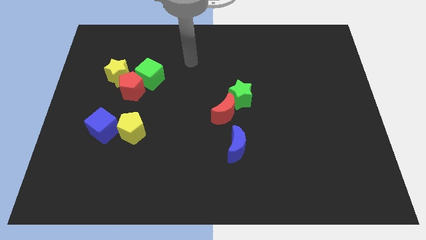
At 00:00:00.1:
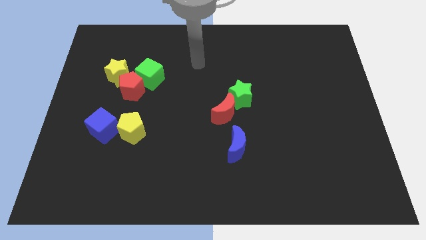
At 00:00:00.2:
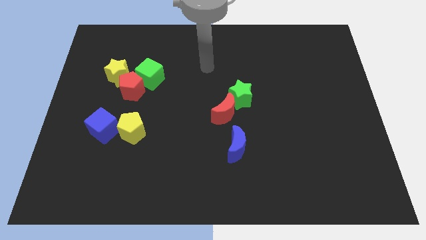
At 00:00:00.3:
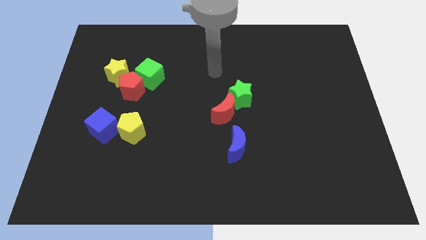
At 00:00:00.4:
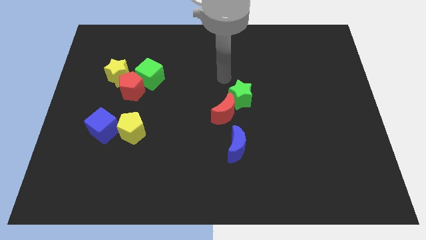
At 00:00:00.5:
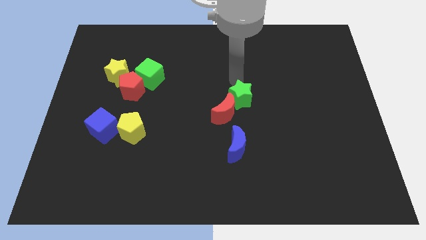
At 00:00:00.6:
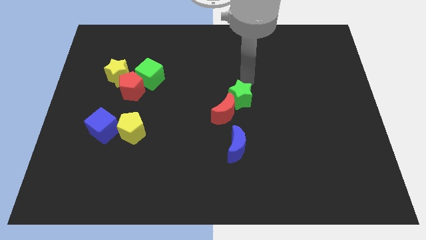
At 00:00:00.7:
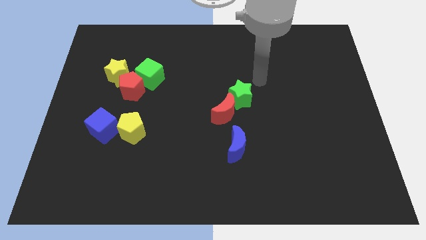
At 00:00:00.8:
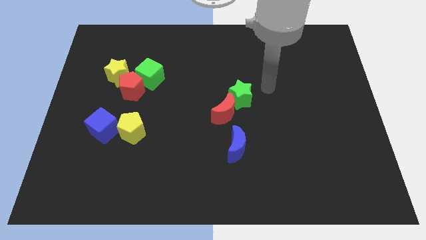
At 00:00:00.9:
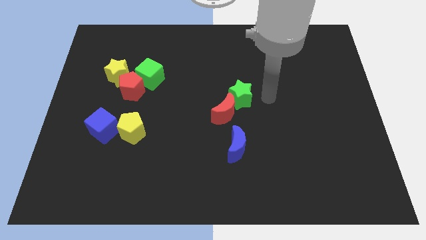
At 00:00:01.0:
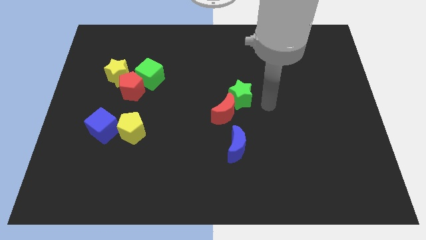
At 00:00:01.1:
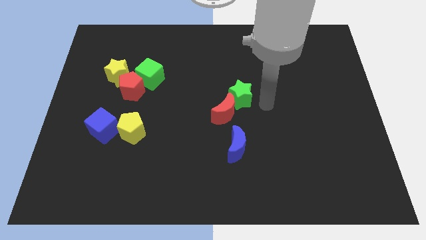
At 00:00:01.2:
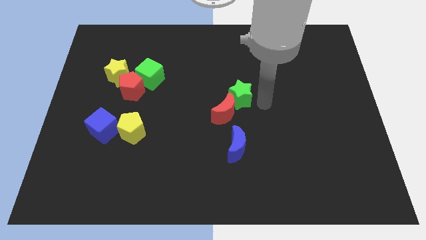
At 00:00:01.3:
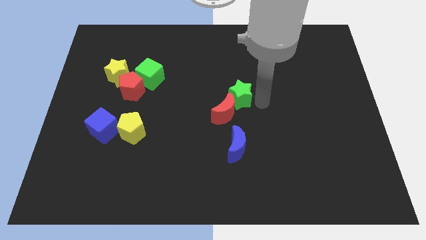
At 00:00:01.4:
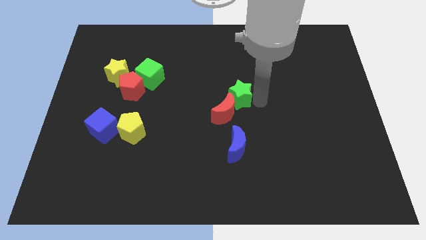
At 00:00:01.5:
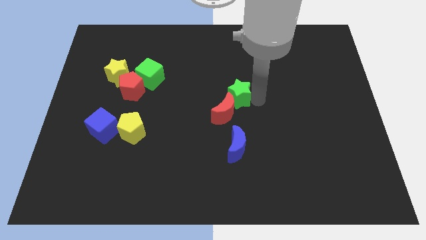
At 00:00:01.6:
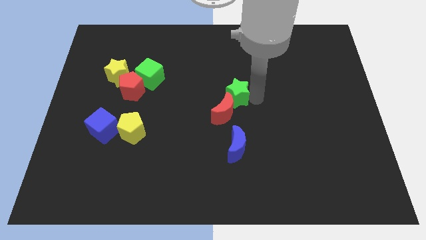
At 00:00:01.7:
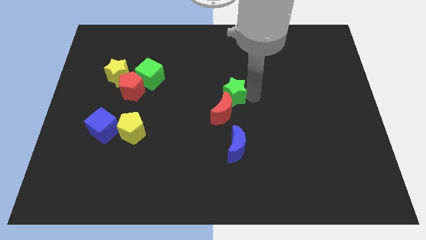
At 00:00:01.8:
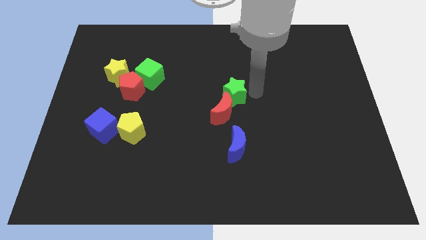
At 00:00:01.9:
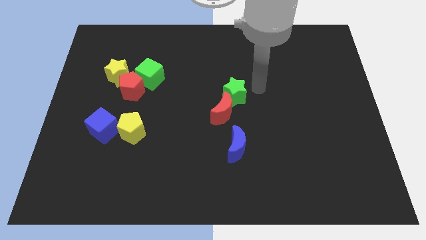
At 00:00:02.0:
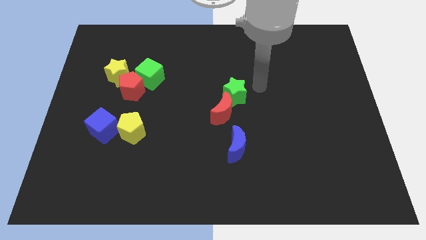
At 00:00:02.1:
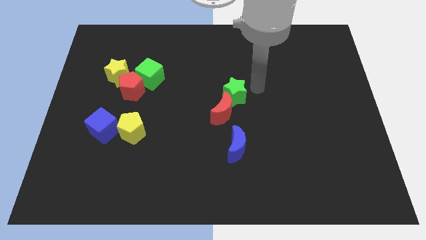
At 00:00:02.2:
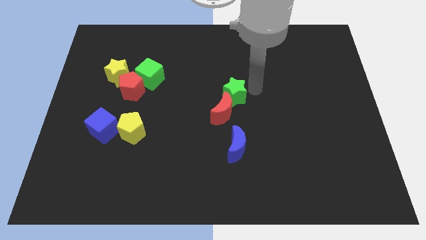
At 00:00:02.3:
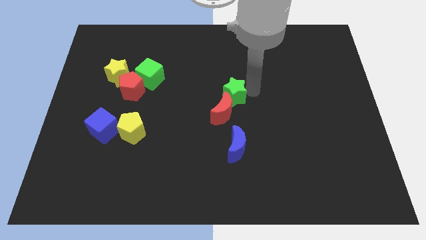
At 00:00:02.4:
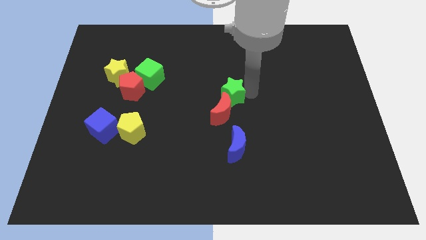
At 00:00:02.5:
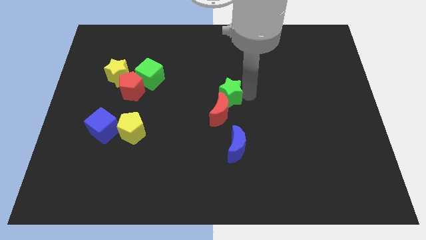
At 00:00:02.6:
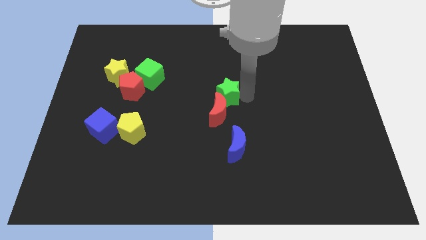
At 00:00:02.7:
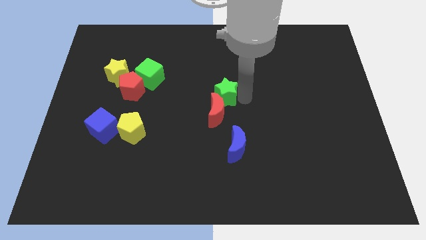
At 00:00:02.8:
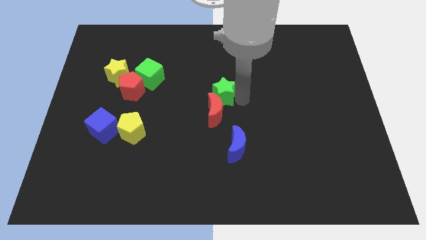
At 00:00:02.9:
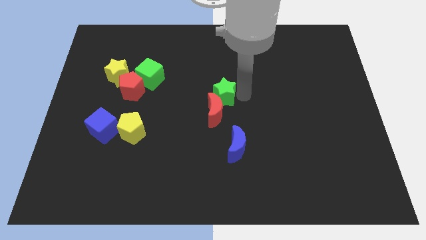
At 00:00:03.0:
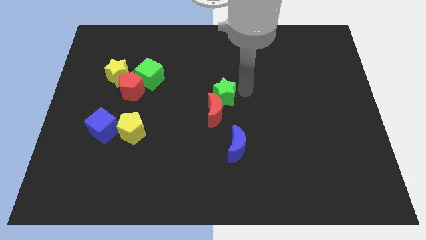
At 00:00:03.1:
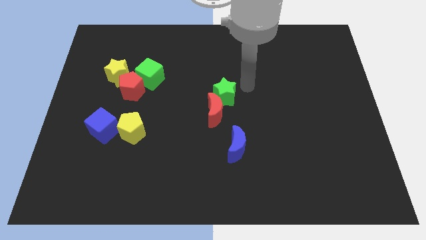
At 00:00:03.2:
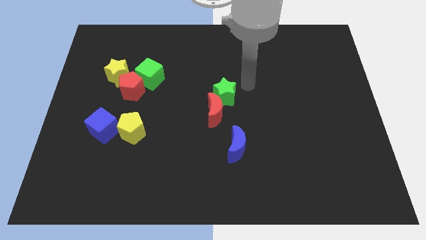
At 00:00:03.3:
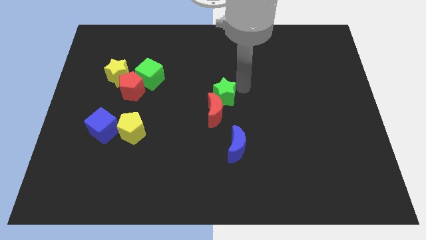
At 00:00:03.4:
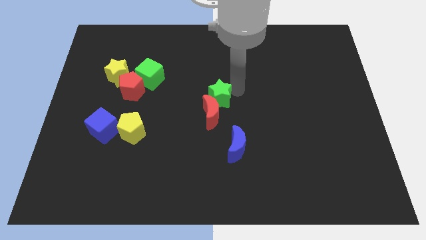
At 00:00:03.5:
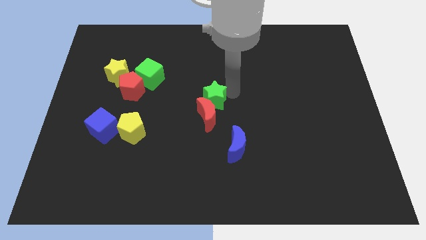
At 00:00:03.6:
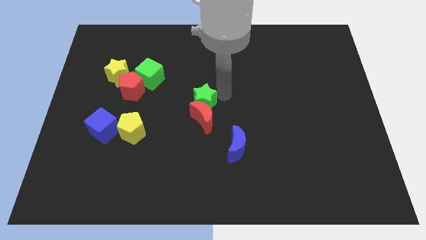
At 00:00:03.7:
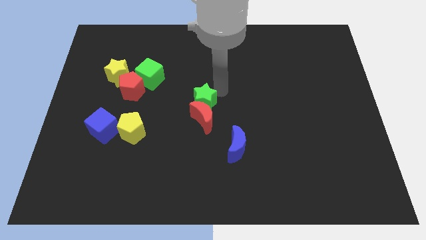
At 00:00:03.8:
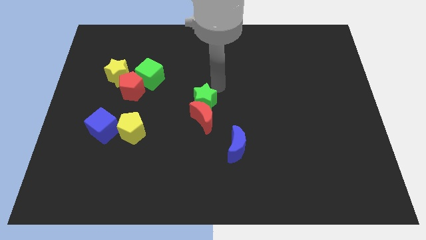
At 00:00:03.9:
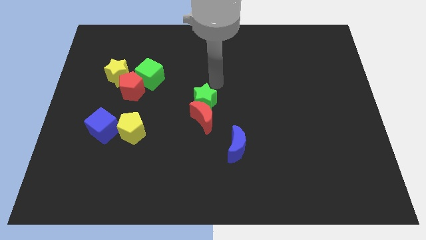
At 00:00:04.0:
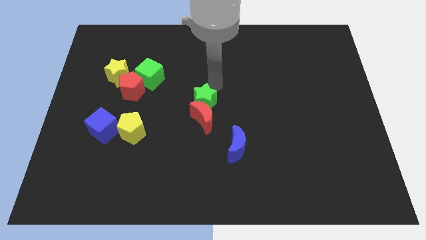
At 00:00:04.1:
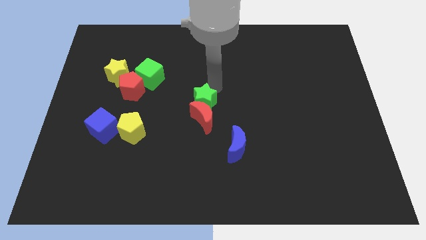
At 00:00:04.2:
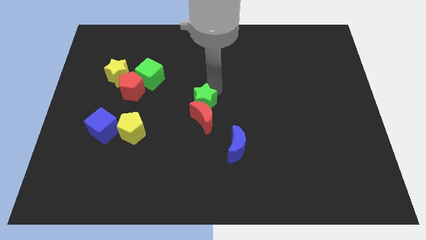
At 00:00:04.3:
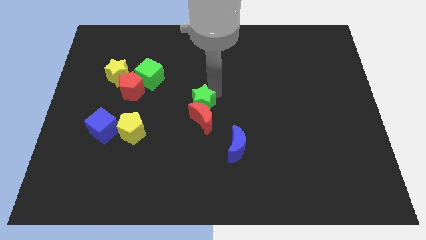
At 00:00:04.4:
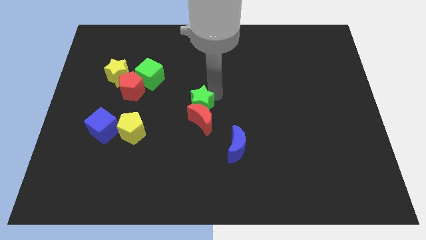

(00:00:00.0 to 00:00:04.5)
slightly slide the green star down and left diagonally

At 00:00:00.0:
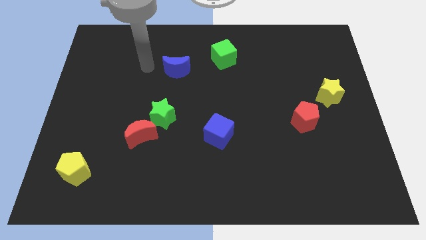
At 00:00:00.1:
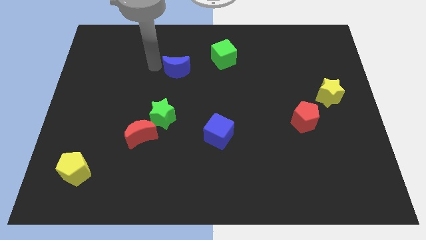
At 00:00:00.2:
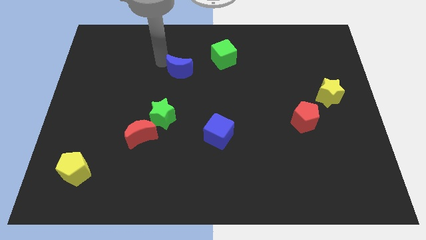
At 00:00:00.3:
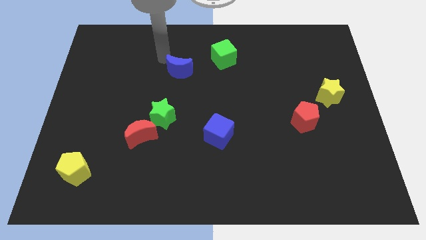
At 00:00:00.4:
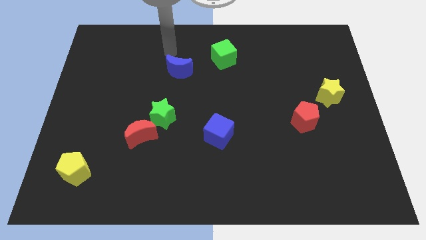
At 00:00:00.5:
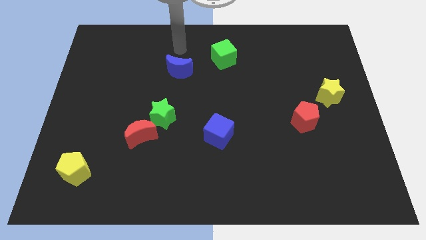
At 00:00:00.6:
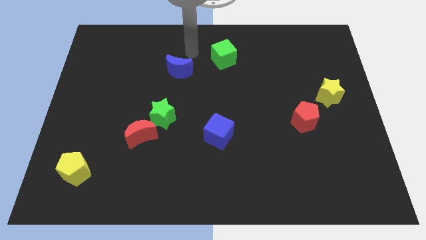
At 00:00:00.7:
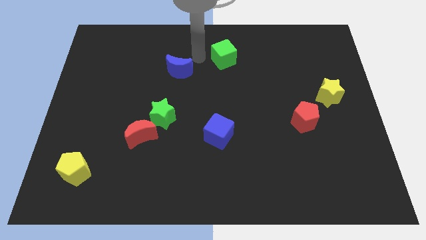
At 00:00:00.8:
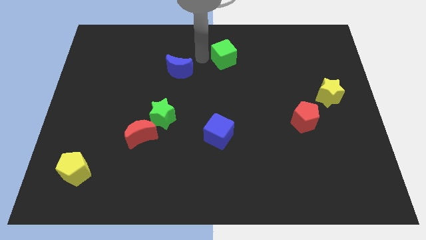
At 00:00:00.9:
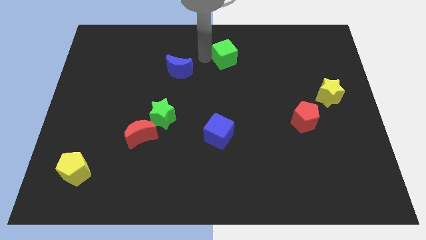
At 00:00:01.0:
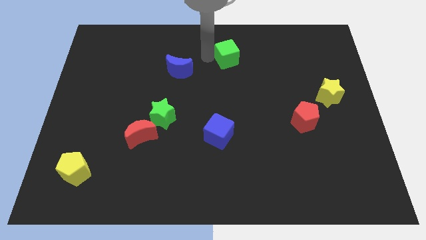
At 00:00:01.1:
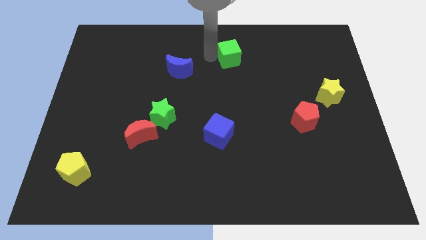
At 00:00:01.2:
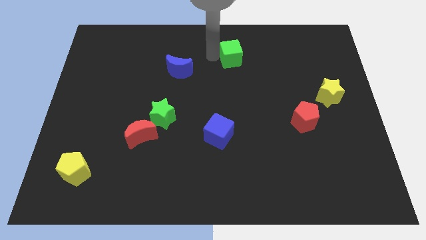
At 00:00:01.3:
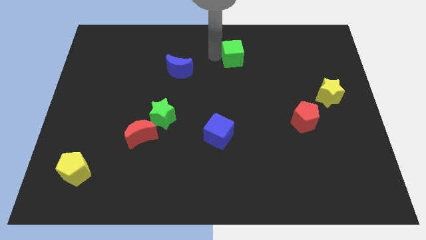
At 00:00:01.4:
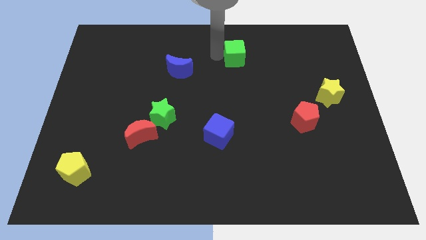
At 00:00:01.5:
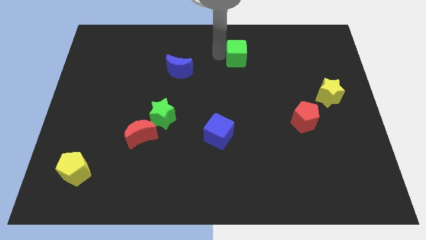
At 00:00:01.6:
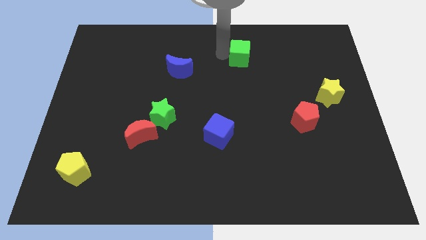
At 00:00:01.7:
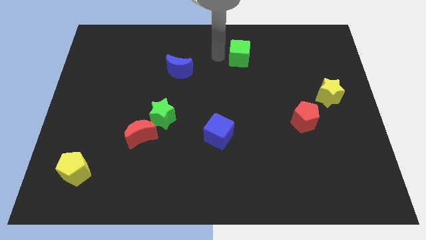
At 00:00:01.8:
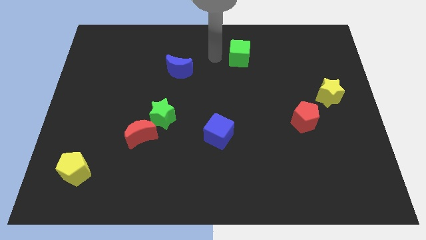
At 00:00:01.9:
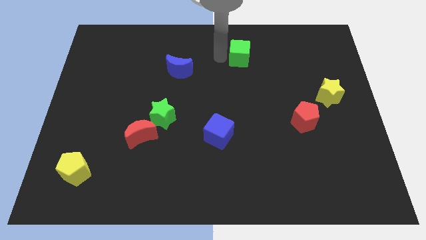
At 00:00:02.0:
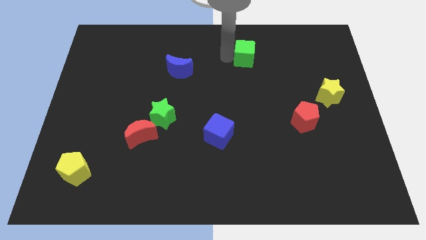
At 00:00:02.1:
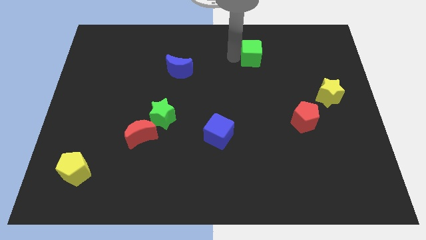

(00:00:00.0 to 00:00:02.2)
slightly push the green cube to the right

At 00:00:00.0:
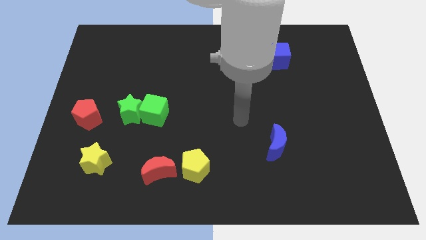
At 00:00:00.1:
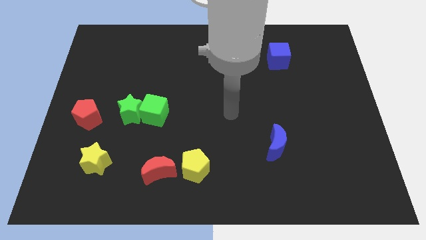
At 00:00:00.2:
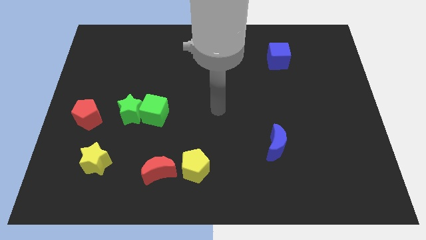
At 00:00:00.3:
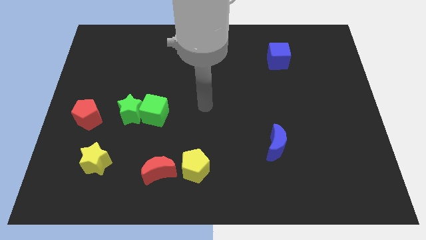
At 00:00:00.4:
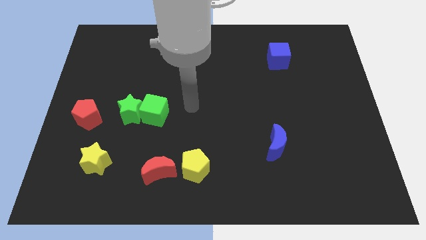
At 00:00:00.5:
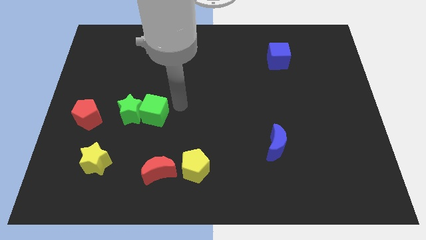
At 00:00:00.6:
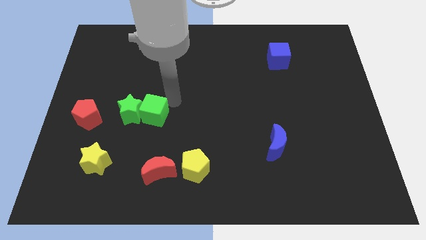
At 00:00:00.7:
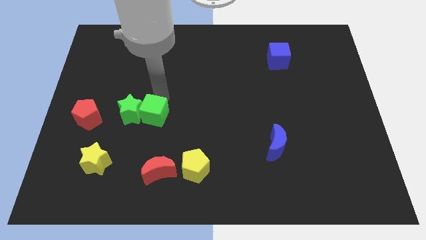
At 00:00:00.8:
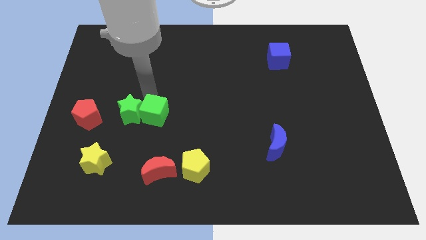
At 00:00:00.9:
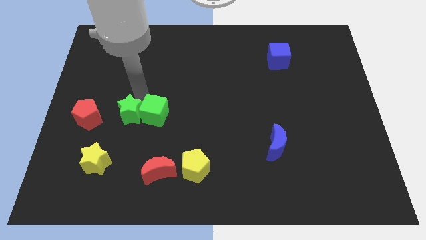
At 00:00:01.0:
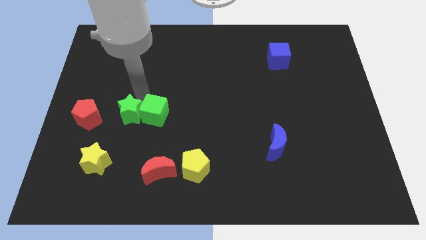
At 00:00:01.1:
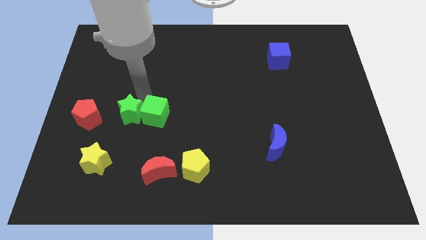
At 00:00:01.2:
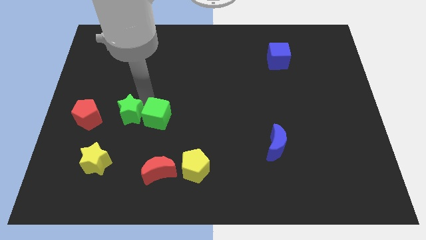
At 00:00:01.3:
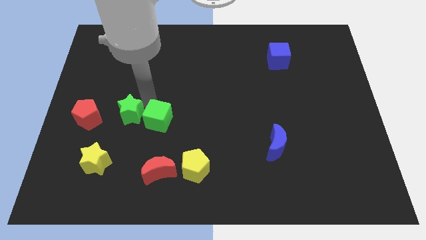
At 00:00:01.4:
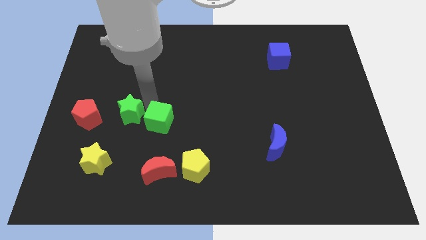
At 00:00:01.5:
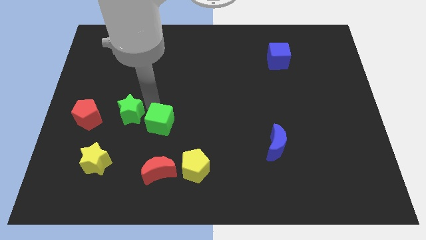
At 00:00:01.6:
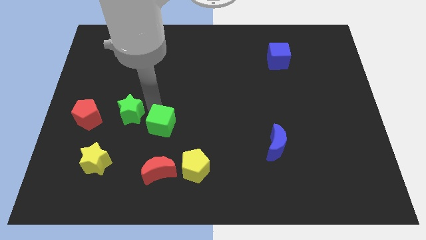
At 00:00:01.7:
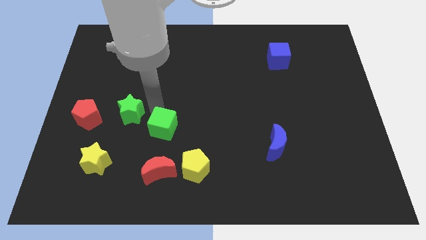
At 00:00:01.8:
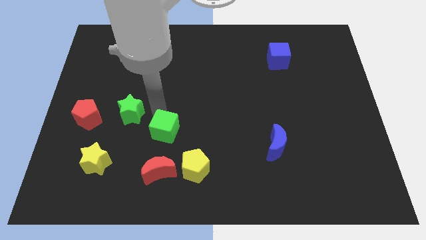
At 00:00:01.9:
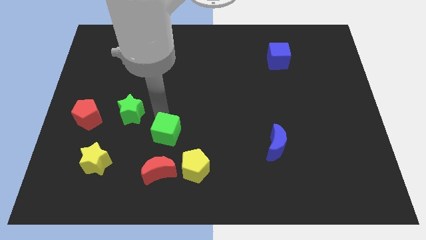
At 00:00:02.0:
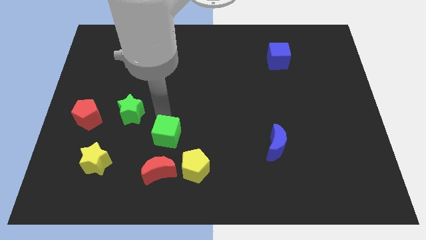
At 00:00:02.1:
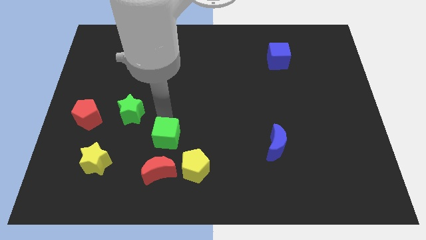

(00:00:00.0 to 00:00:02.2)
slightly move the green cube diagonally downwards and to the right
